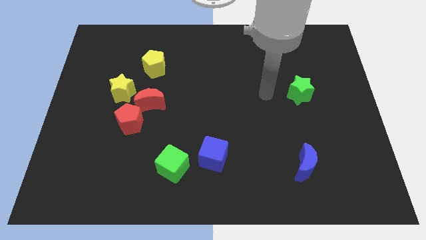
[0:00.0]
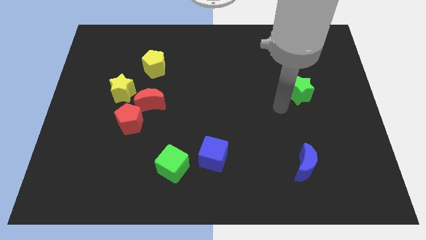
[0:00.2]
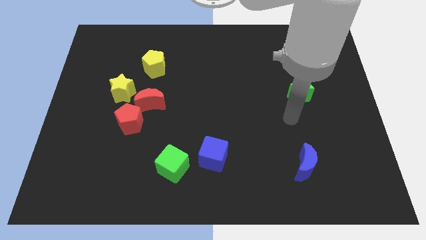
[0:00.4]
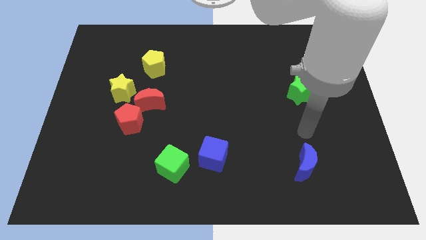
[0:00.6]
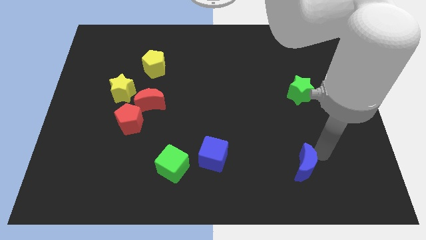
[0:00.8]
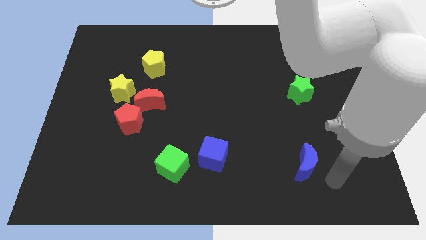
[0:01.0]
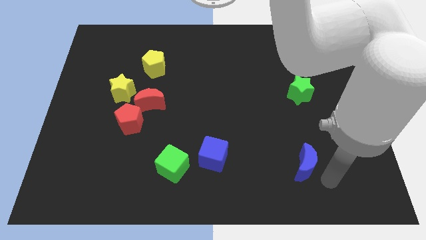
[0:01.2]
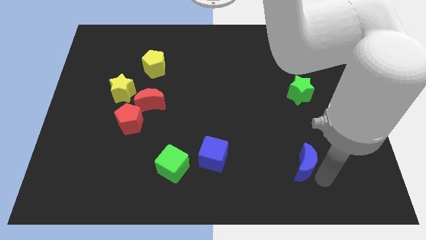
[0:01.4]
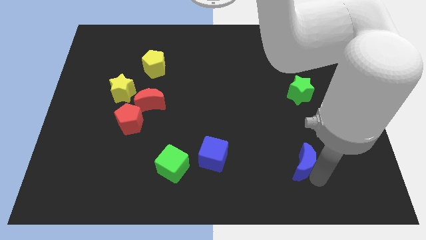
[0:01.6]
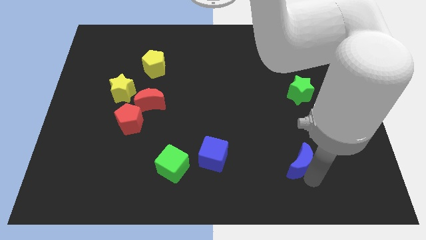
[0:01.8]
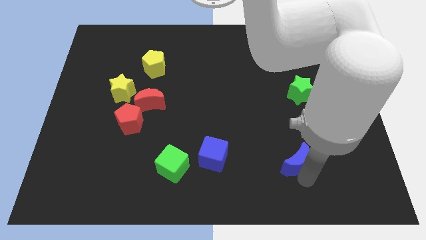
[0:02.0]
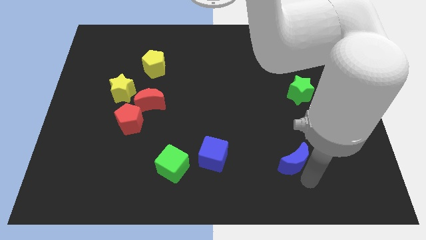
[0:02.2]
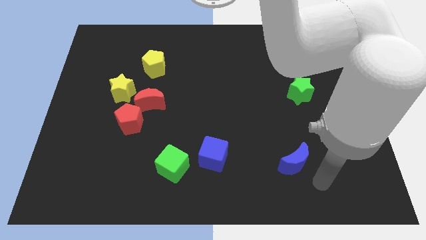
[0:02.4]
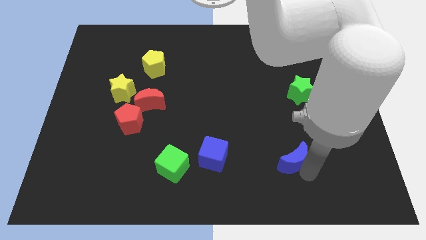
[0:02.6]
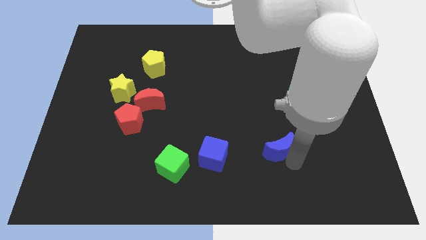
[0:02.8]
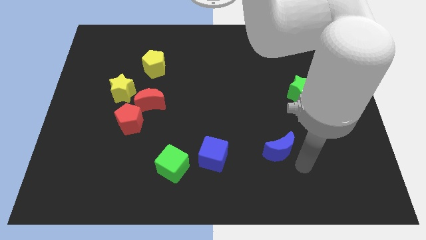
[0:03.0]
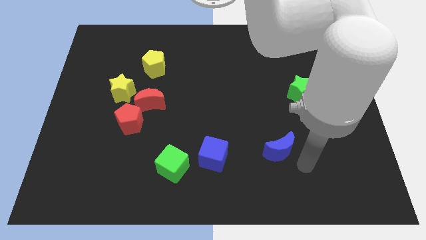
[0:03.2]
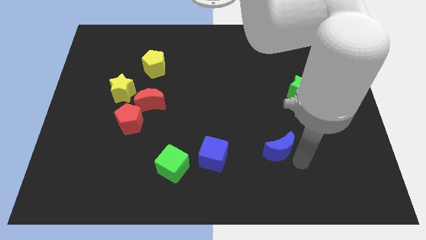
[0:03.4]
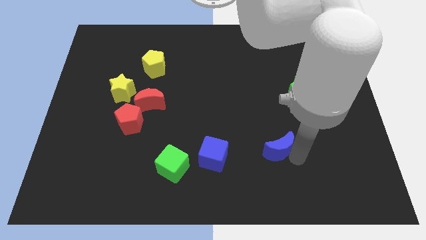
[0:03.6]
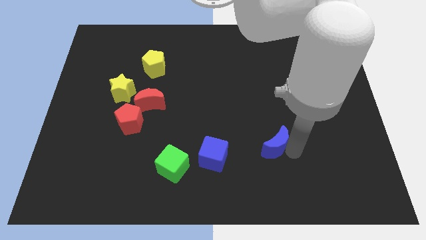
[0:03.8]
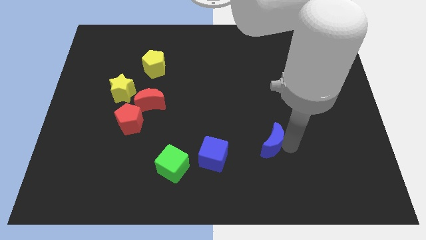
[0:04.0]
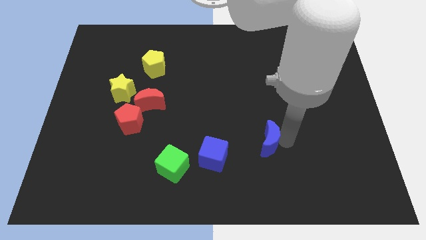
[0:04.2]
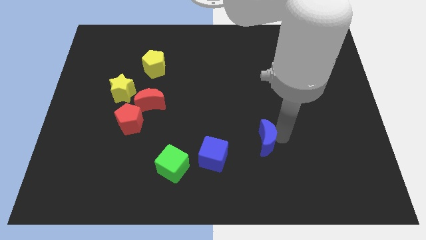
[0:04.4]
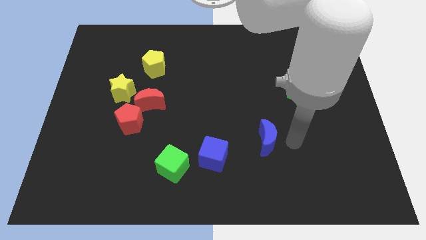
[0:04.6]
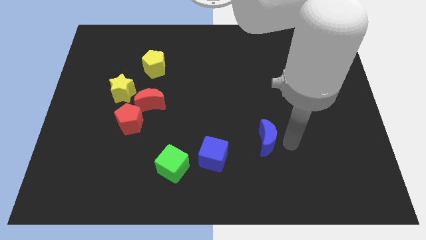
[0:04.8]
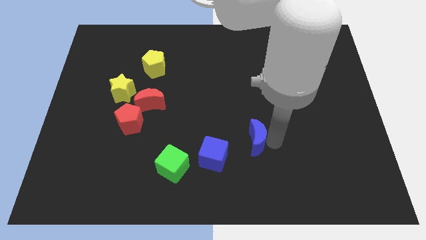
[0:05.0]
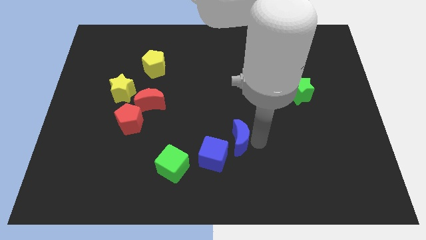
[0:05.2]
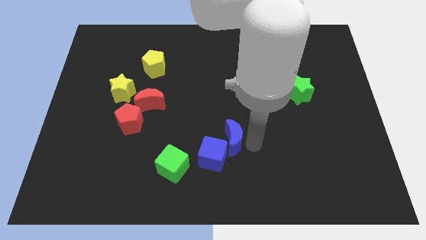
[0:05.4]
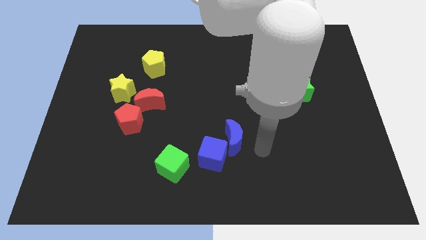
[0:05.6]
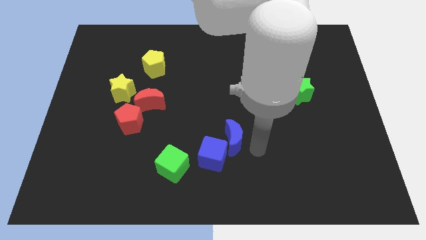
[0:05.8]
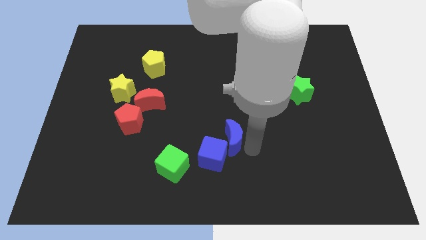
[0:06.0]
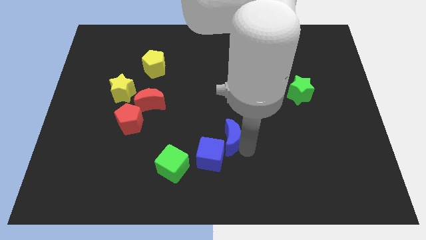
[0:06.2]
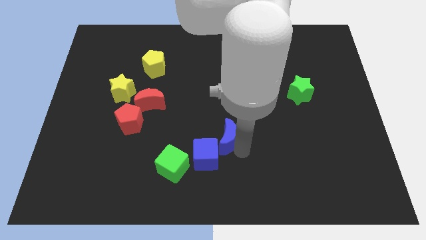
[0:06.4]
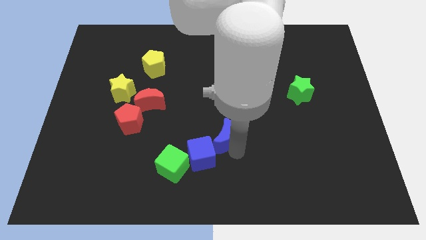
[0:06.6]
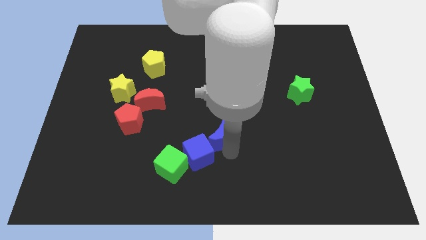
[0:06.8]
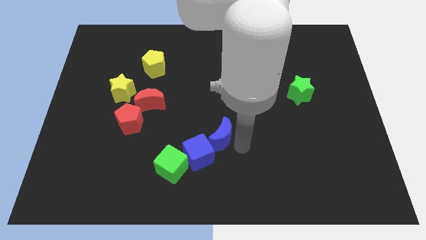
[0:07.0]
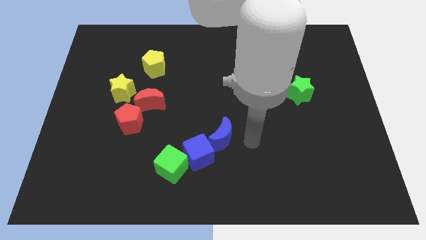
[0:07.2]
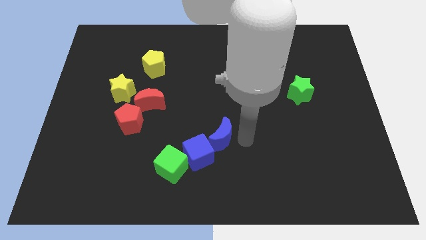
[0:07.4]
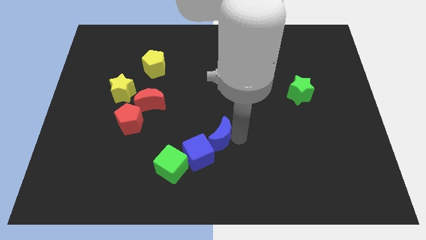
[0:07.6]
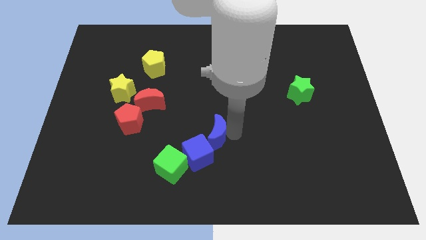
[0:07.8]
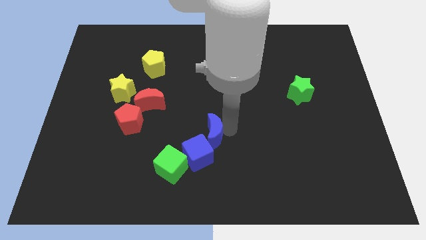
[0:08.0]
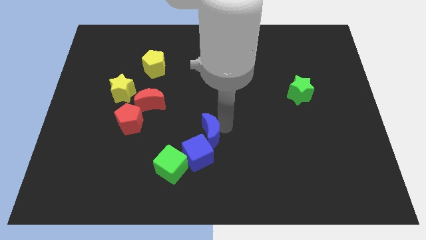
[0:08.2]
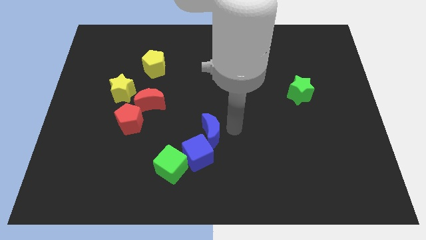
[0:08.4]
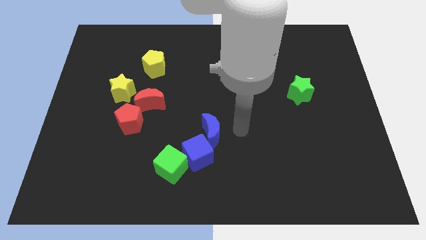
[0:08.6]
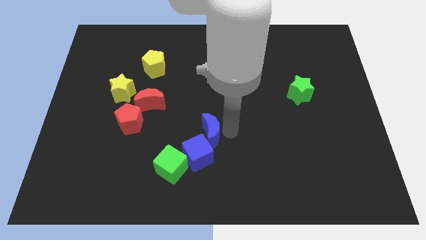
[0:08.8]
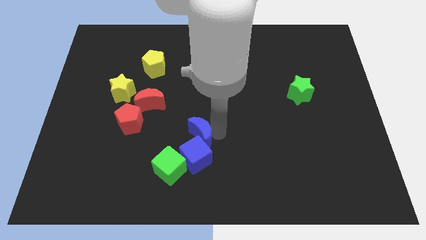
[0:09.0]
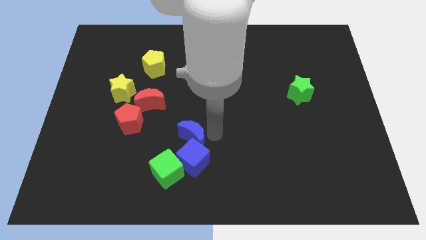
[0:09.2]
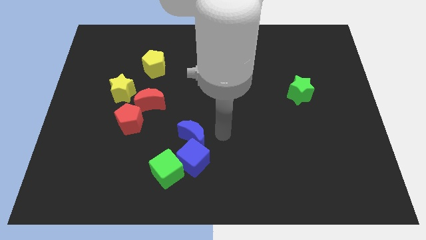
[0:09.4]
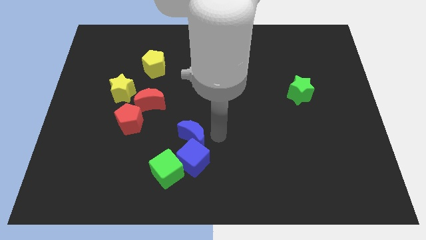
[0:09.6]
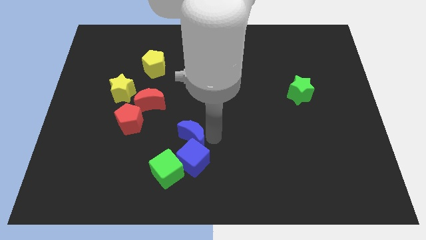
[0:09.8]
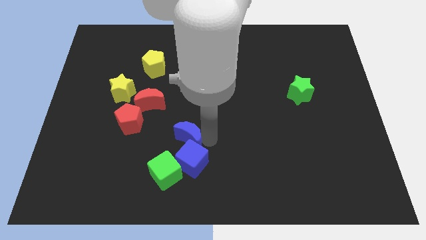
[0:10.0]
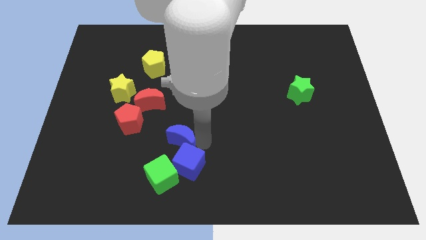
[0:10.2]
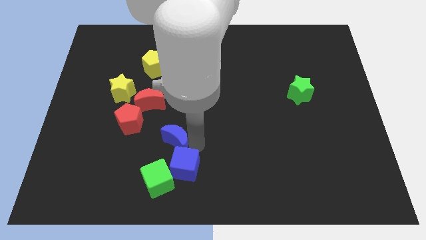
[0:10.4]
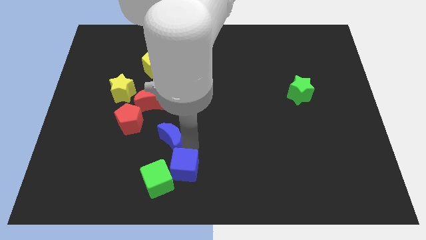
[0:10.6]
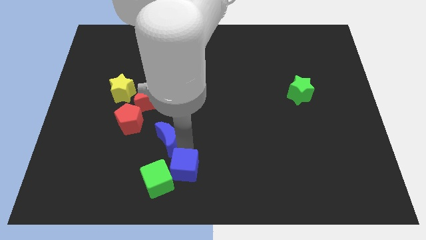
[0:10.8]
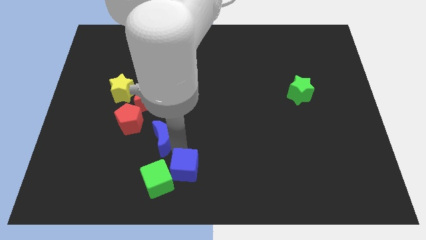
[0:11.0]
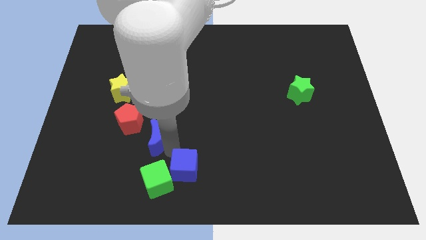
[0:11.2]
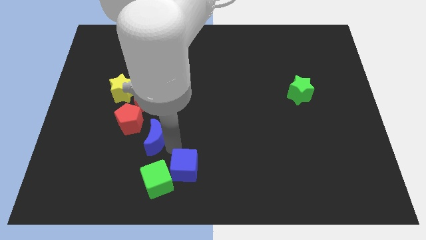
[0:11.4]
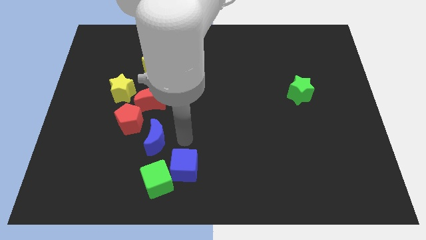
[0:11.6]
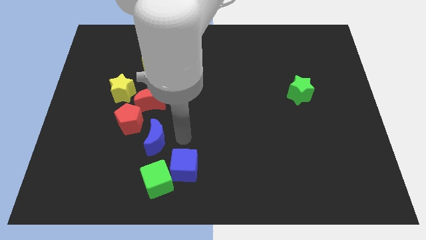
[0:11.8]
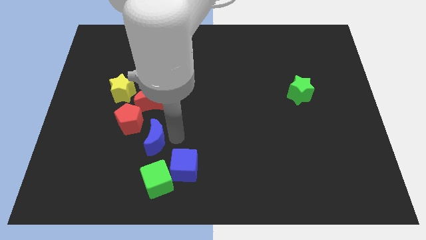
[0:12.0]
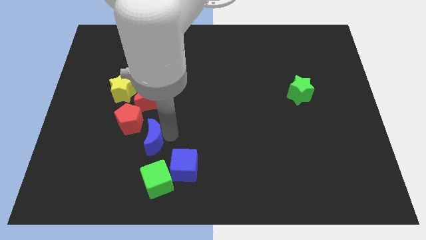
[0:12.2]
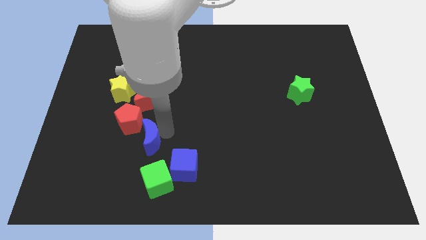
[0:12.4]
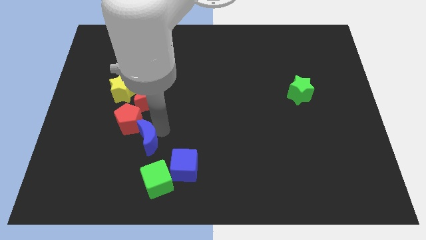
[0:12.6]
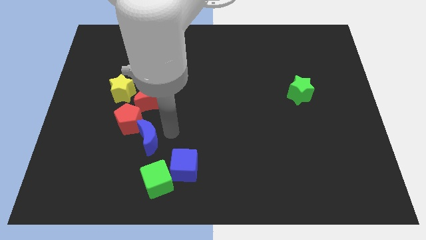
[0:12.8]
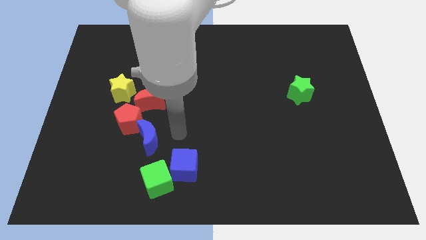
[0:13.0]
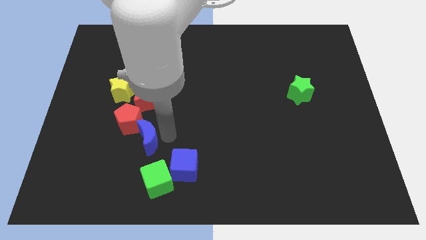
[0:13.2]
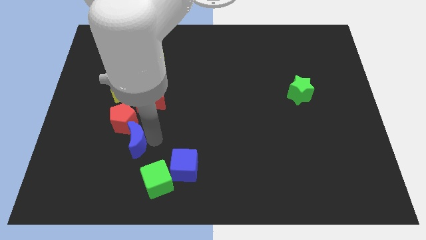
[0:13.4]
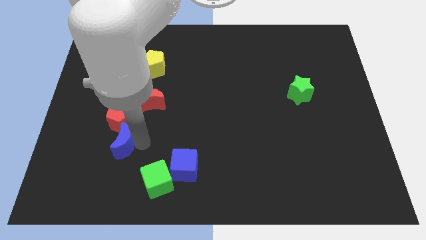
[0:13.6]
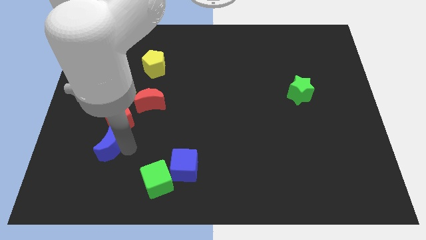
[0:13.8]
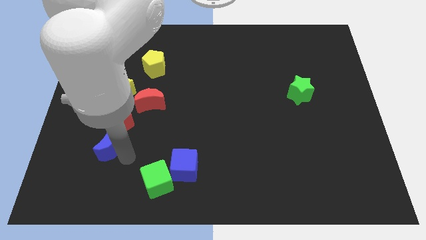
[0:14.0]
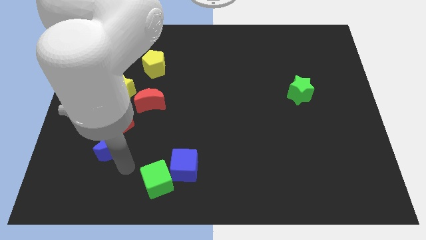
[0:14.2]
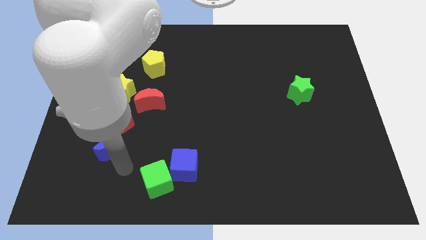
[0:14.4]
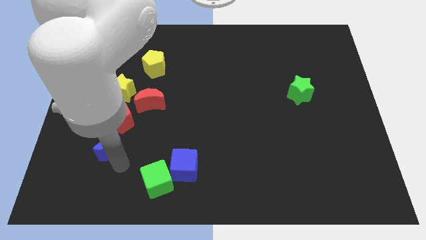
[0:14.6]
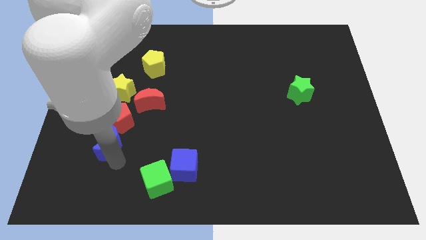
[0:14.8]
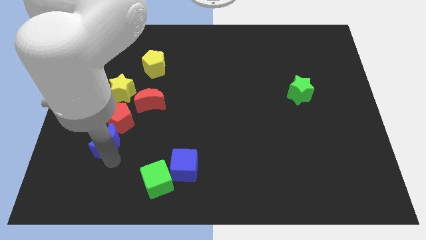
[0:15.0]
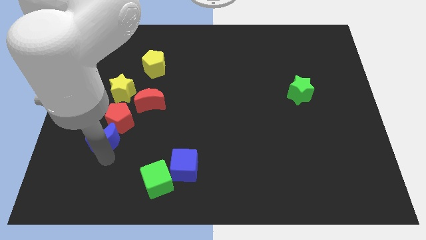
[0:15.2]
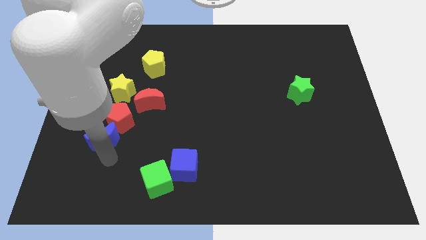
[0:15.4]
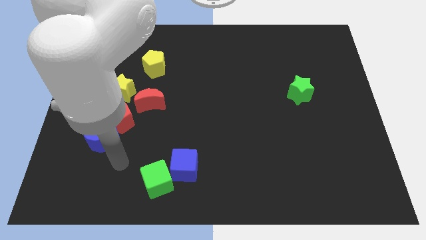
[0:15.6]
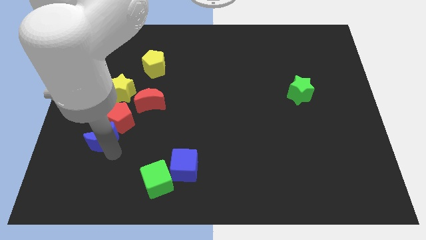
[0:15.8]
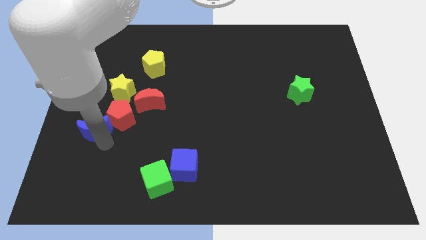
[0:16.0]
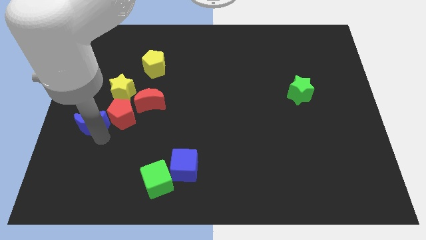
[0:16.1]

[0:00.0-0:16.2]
slide the blue moon to the left side
